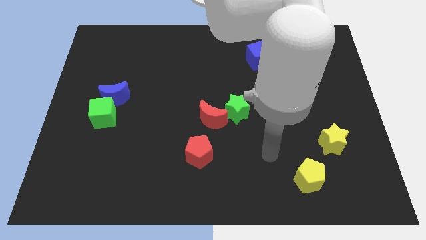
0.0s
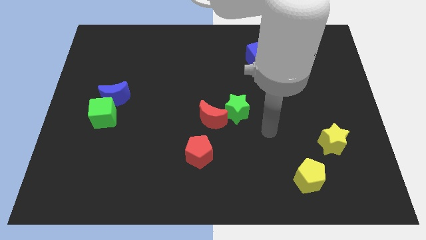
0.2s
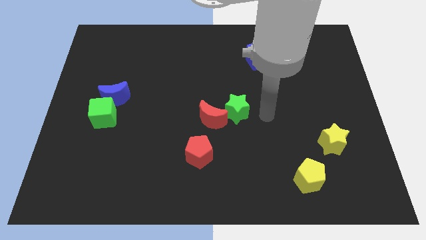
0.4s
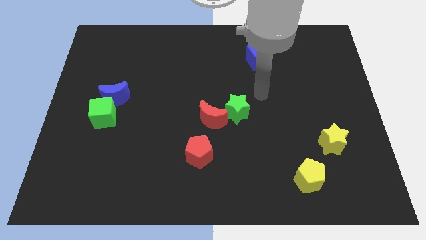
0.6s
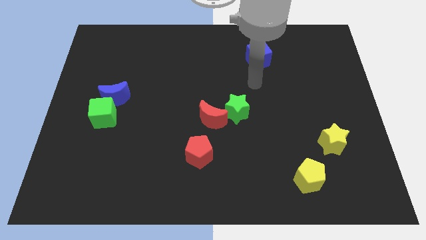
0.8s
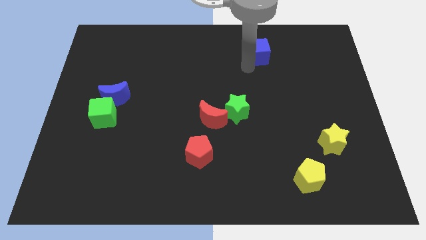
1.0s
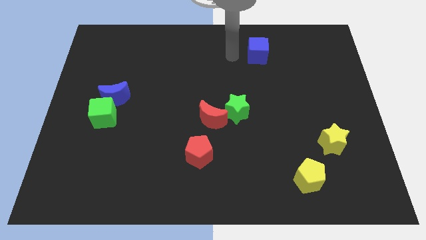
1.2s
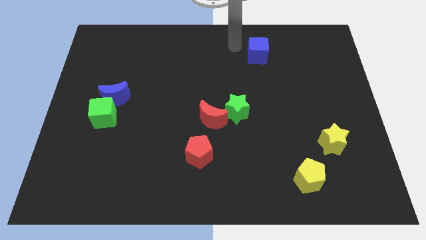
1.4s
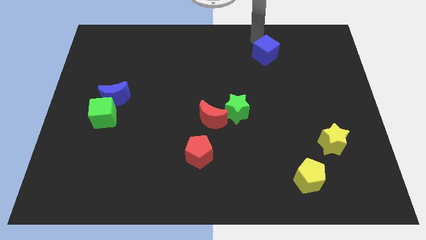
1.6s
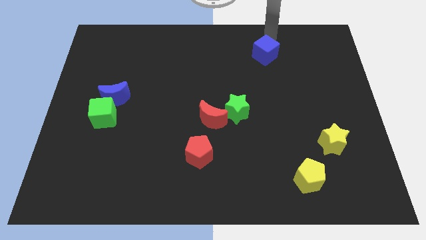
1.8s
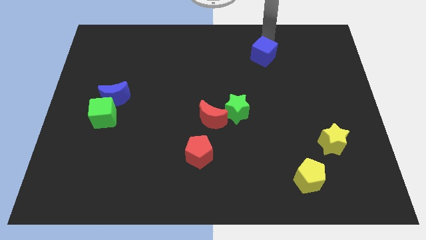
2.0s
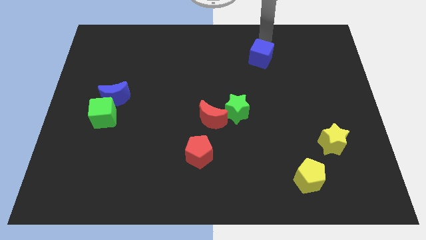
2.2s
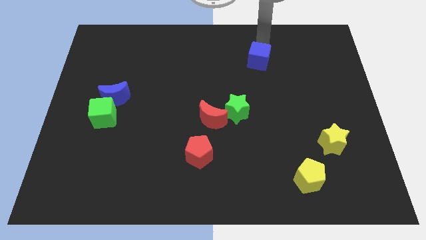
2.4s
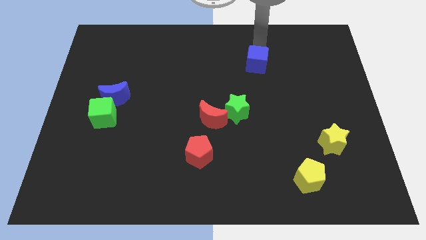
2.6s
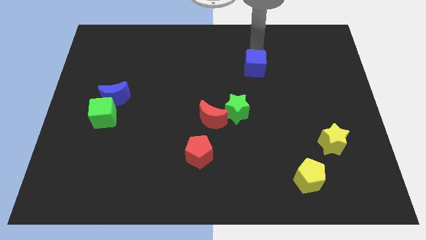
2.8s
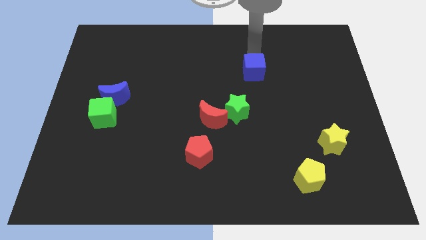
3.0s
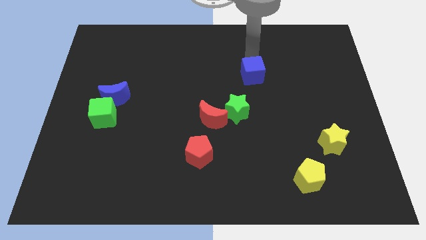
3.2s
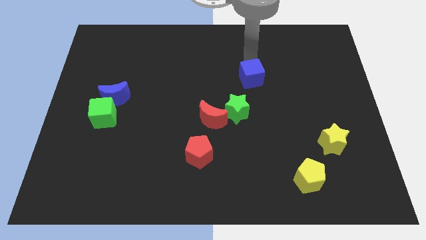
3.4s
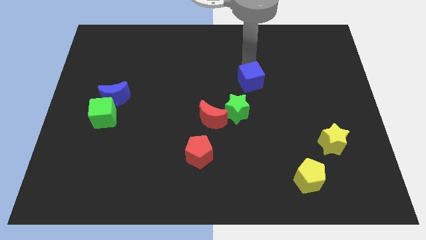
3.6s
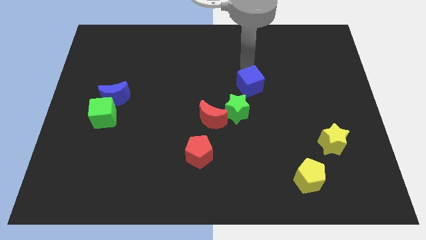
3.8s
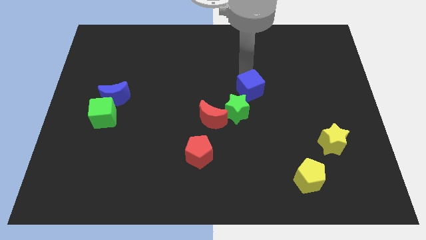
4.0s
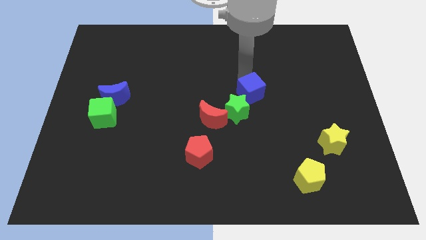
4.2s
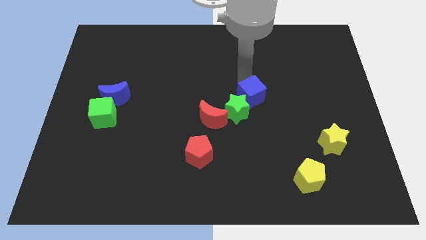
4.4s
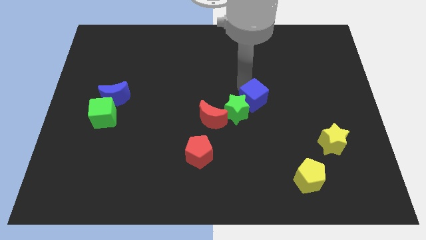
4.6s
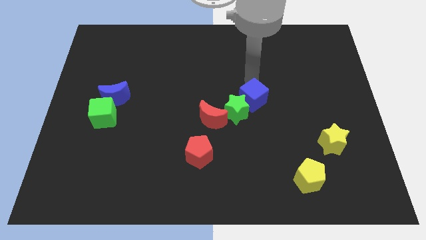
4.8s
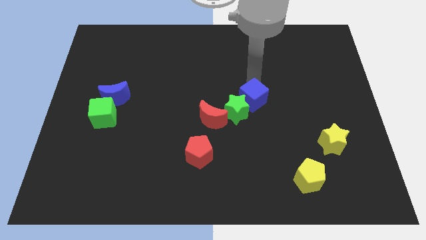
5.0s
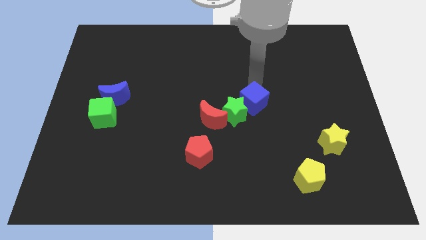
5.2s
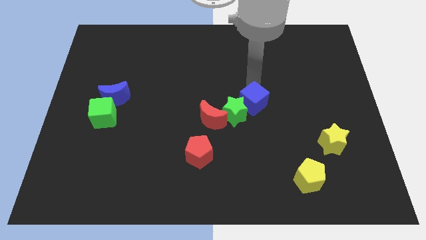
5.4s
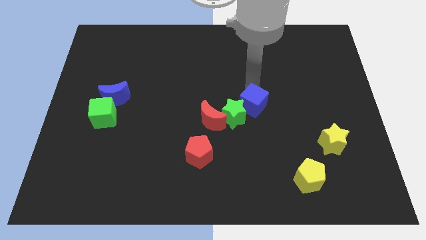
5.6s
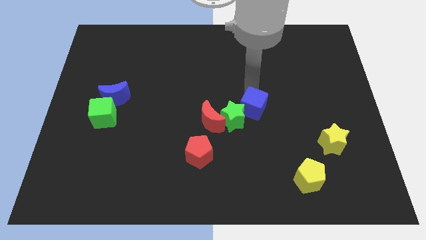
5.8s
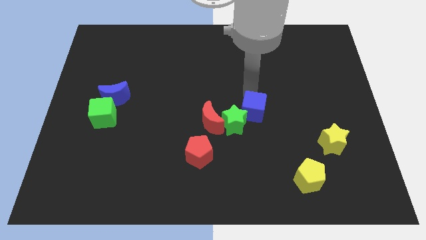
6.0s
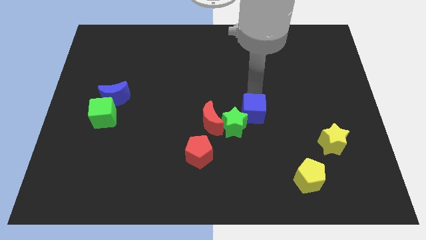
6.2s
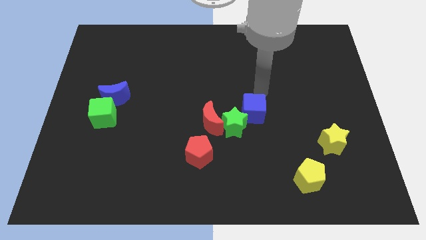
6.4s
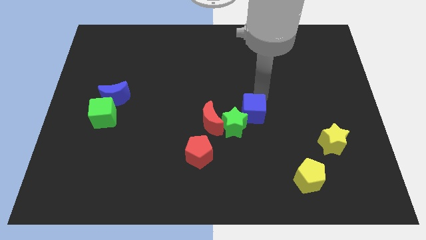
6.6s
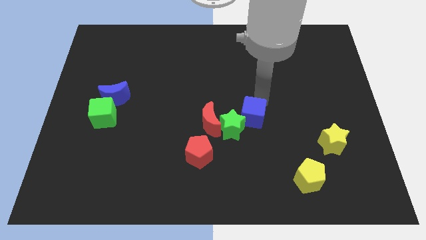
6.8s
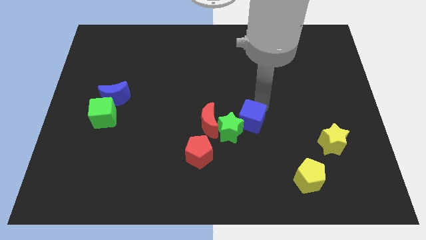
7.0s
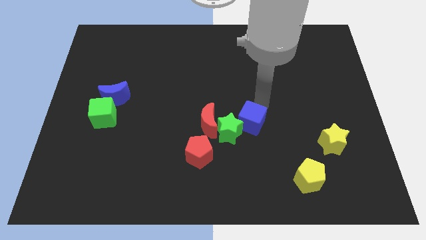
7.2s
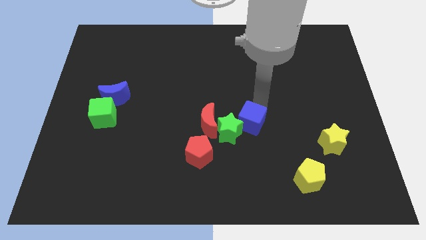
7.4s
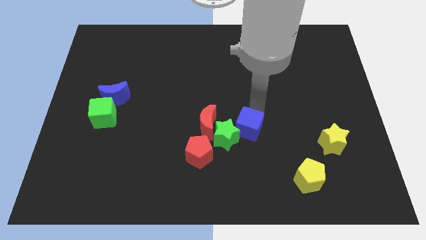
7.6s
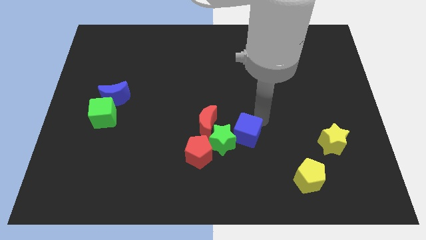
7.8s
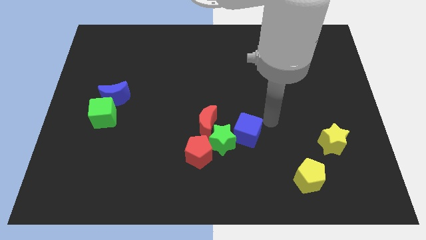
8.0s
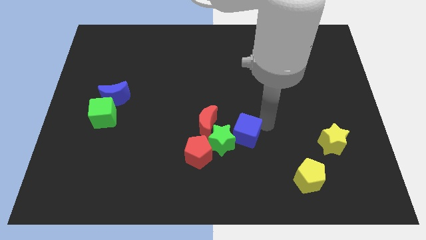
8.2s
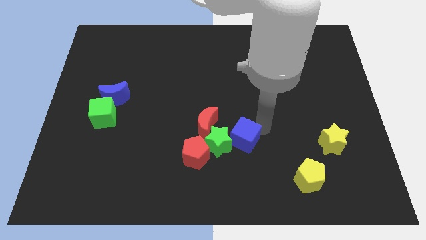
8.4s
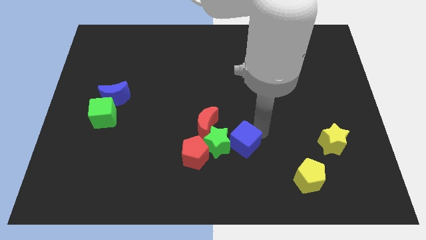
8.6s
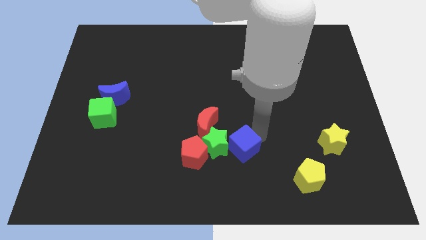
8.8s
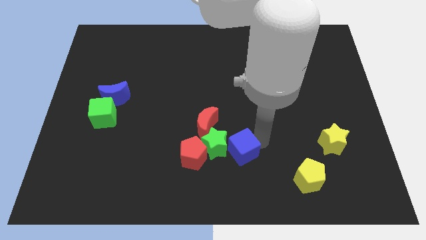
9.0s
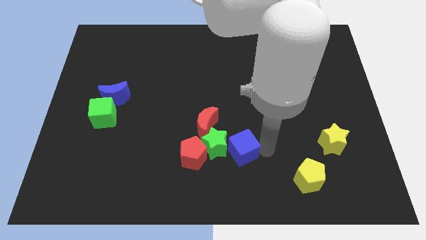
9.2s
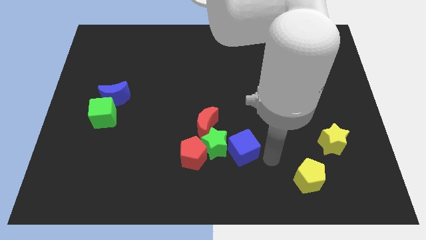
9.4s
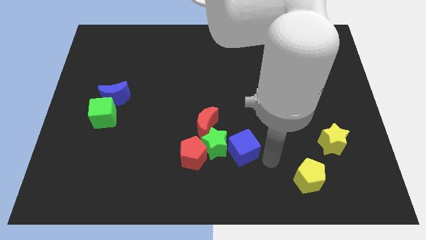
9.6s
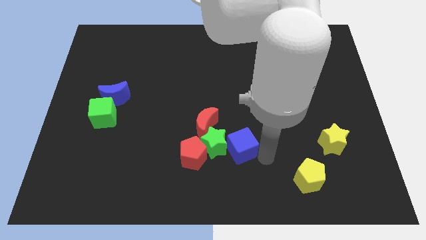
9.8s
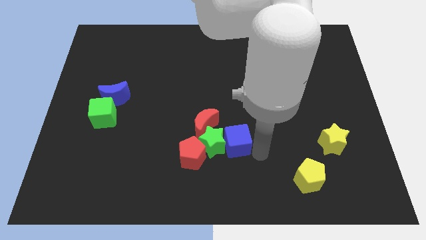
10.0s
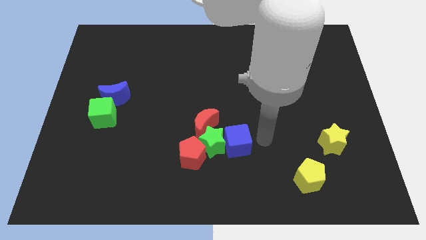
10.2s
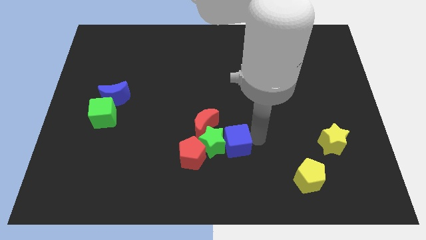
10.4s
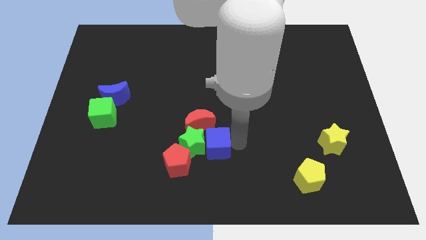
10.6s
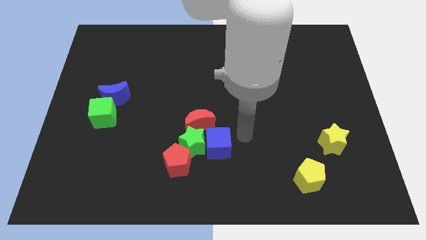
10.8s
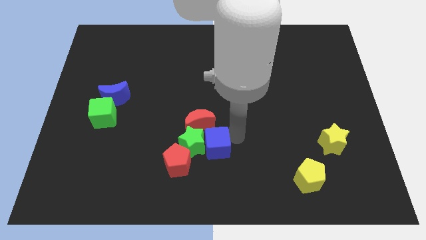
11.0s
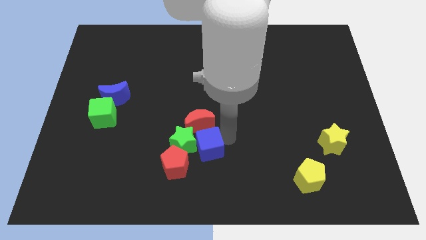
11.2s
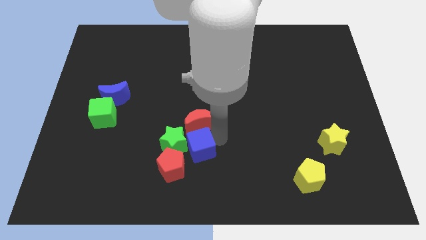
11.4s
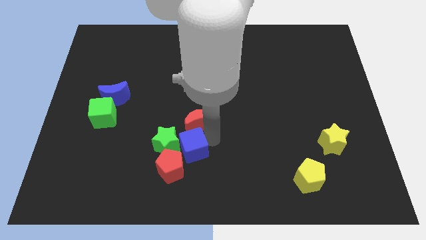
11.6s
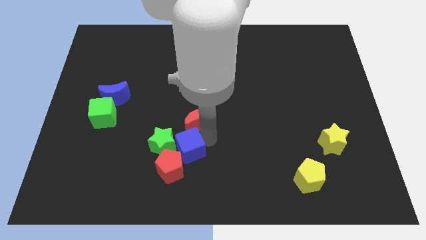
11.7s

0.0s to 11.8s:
slide the blue cube next to the red pentagon

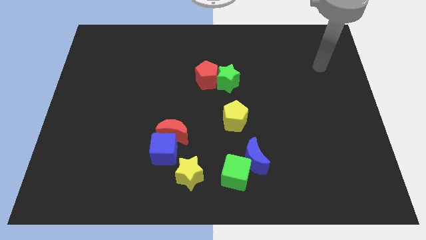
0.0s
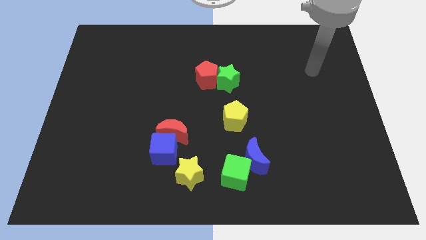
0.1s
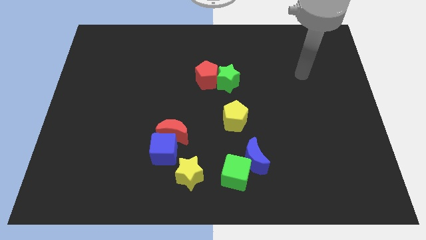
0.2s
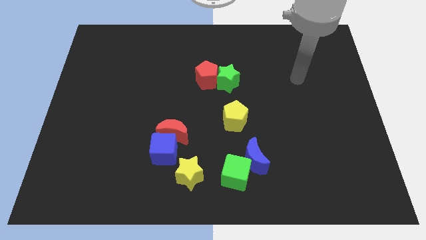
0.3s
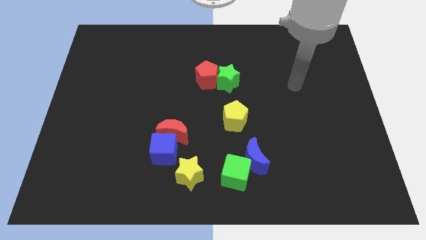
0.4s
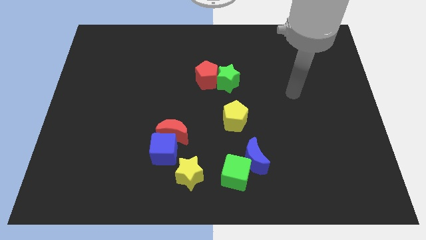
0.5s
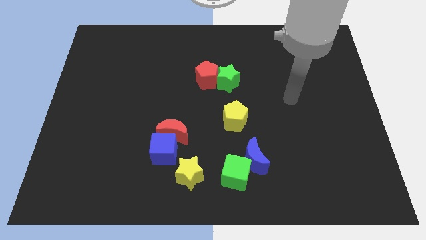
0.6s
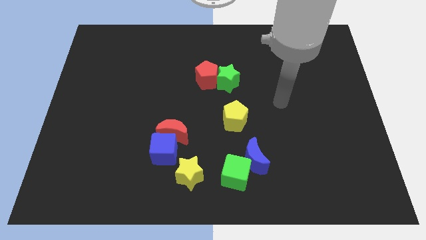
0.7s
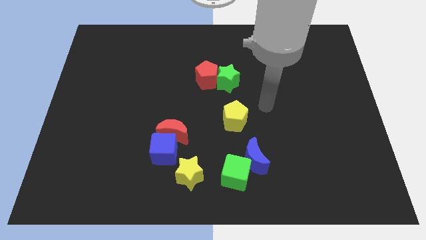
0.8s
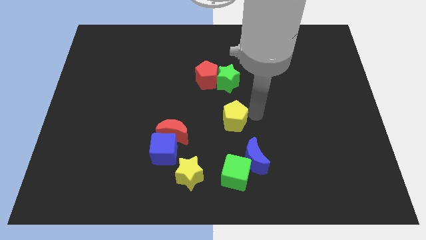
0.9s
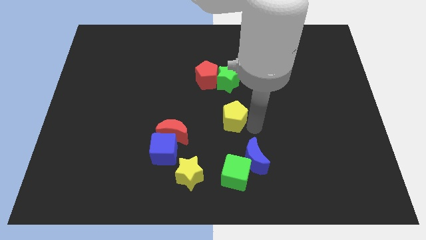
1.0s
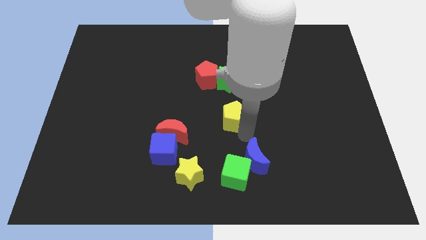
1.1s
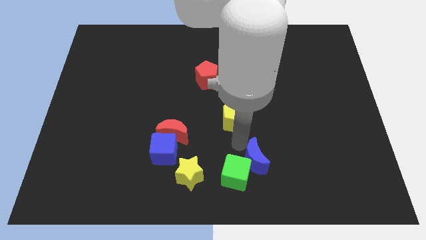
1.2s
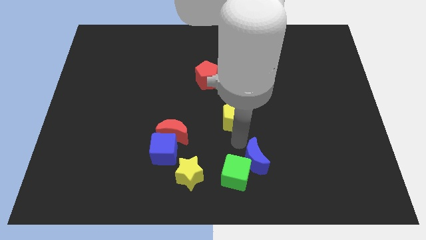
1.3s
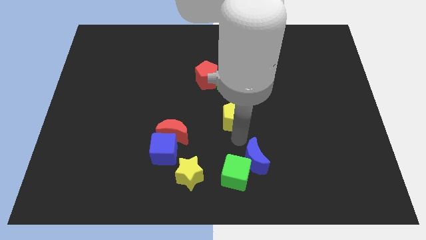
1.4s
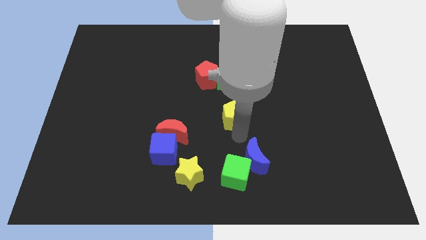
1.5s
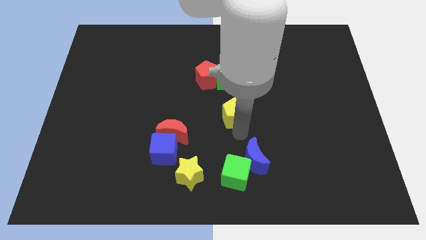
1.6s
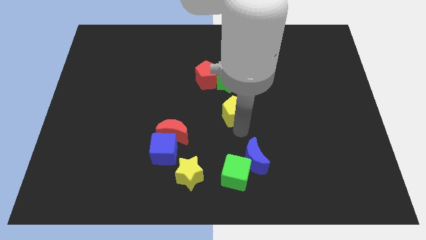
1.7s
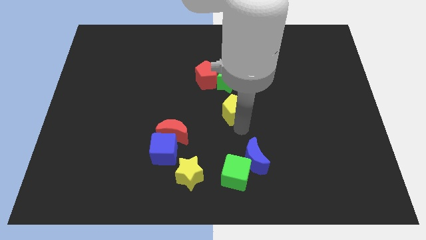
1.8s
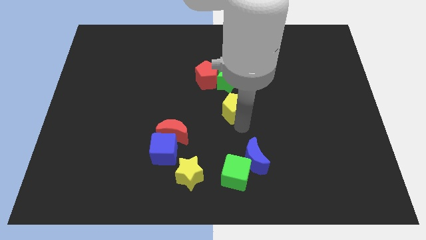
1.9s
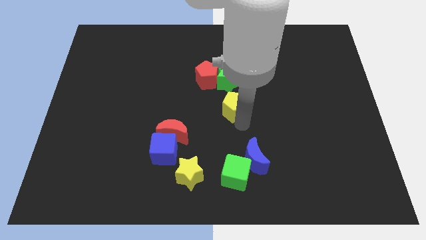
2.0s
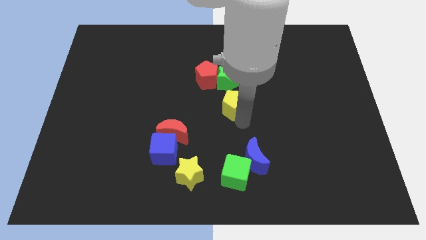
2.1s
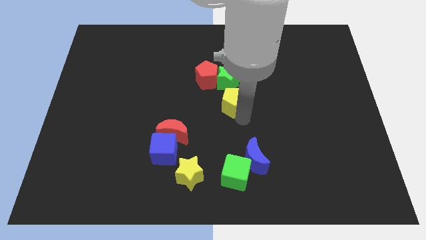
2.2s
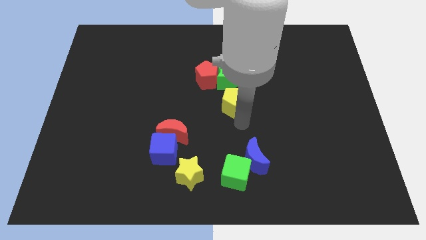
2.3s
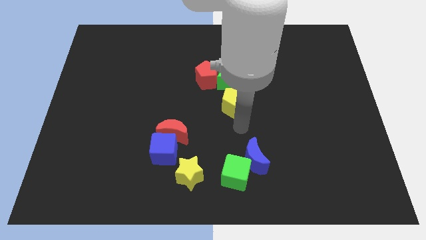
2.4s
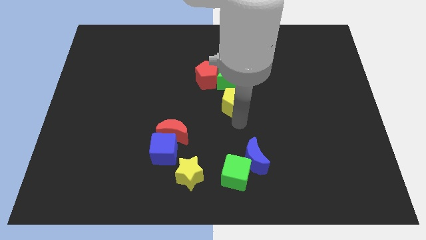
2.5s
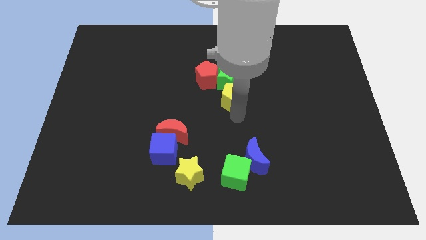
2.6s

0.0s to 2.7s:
push the yellow pentagon towards the green star
